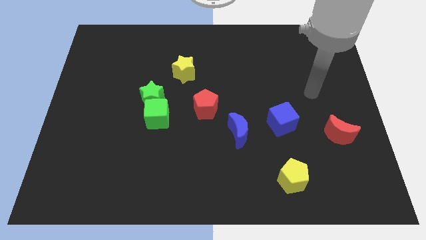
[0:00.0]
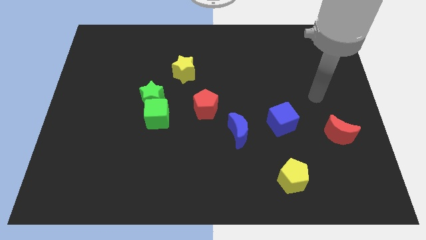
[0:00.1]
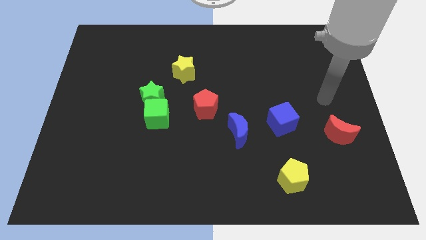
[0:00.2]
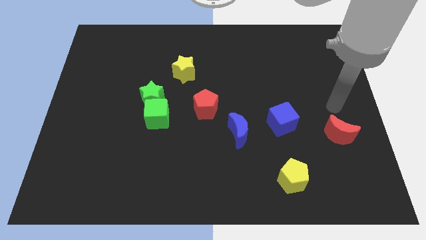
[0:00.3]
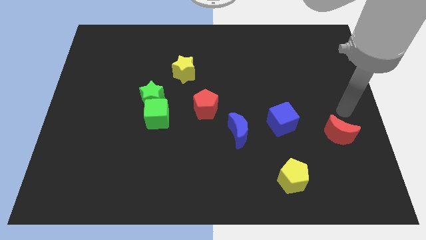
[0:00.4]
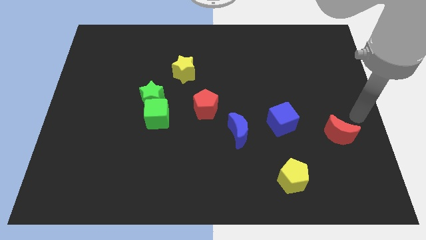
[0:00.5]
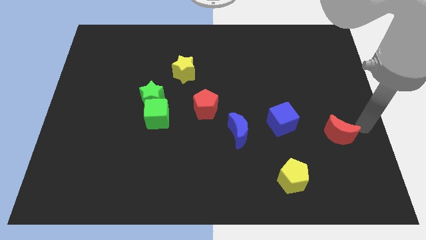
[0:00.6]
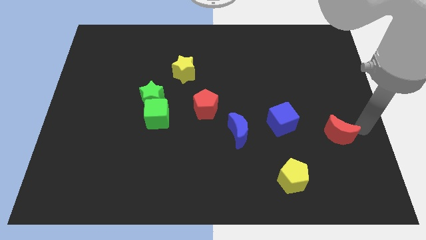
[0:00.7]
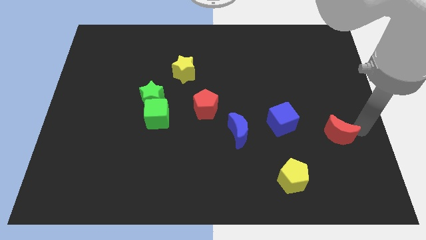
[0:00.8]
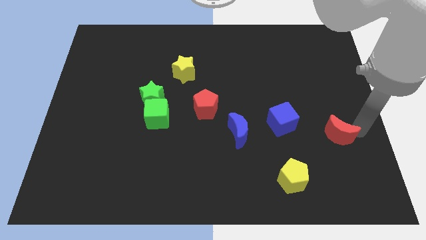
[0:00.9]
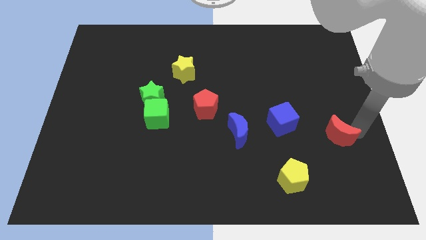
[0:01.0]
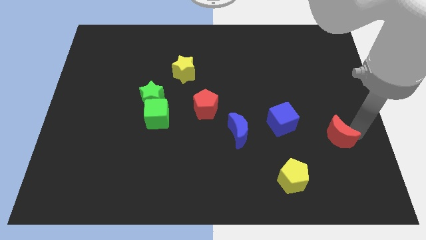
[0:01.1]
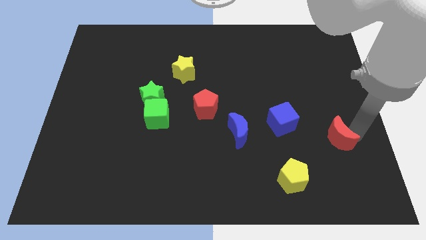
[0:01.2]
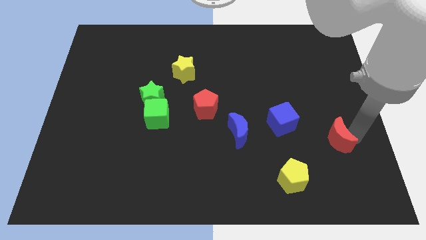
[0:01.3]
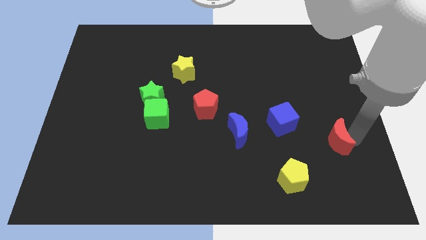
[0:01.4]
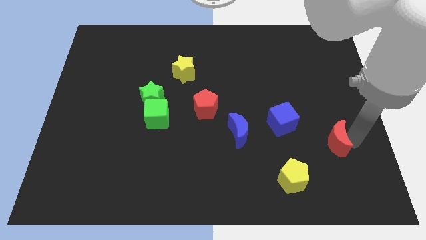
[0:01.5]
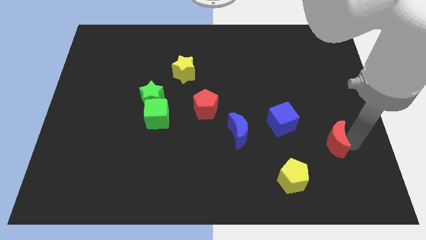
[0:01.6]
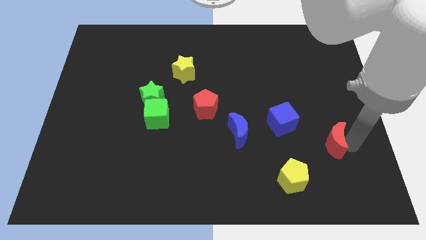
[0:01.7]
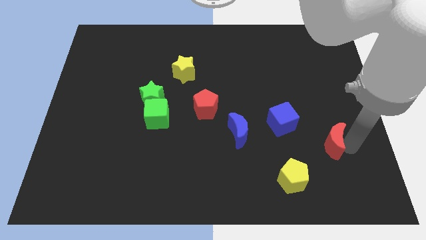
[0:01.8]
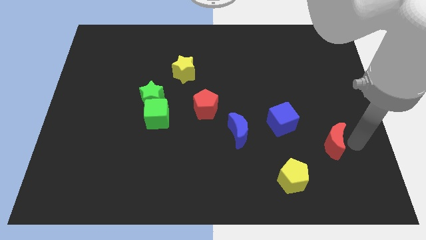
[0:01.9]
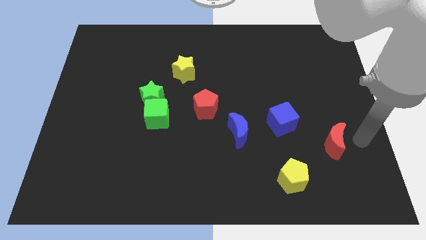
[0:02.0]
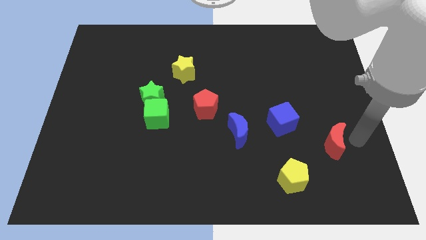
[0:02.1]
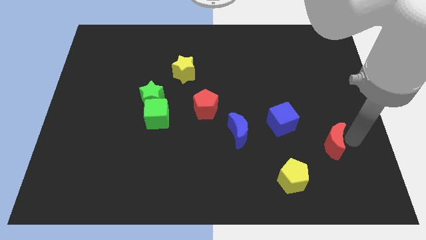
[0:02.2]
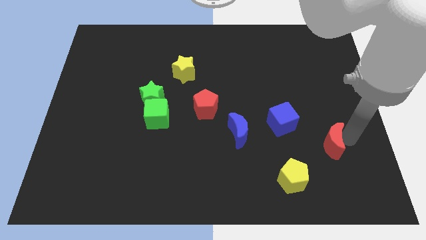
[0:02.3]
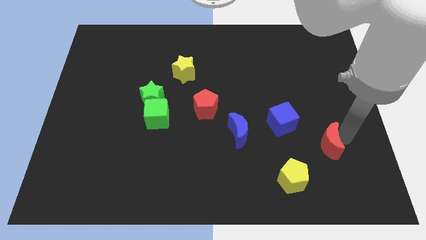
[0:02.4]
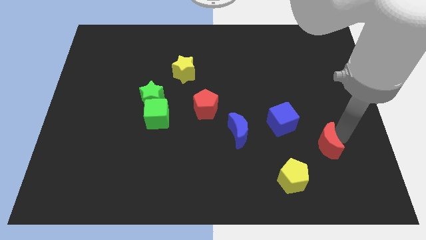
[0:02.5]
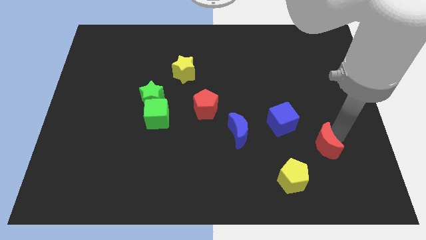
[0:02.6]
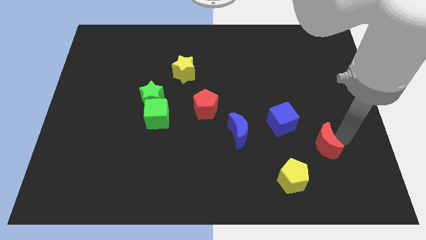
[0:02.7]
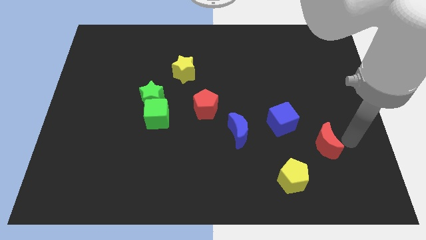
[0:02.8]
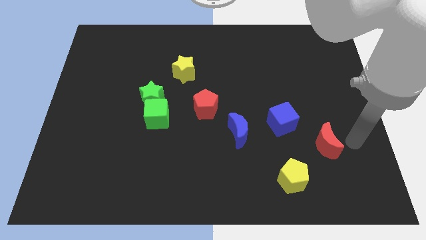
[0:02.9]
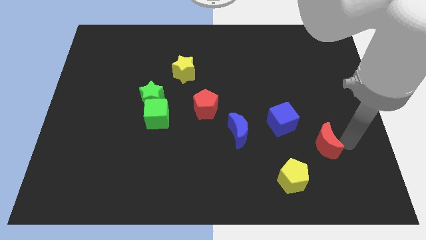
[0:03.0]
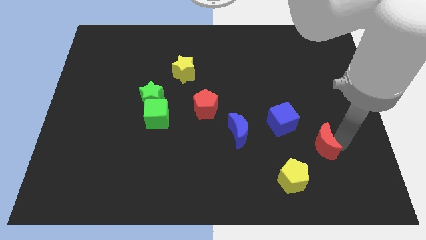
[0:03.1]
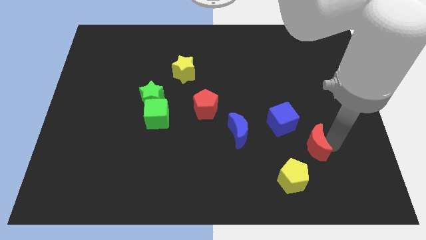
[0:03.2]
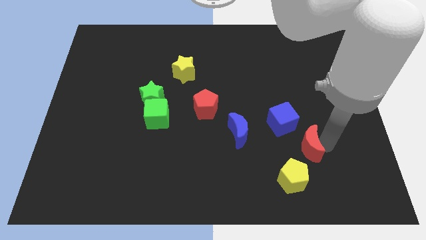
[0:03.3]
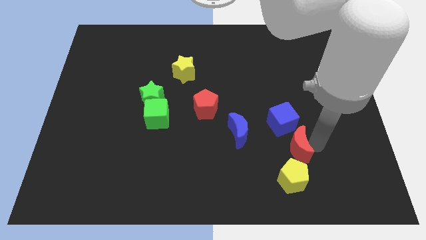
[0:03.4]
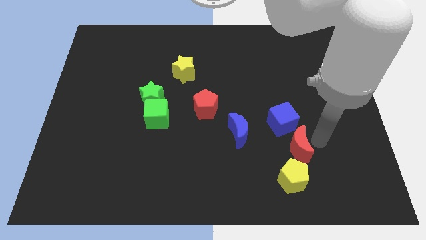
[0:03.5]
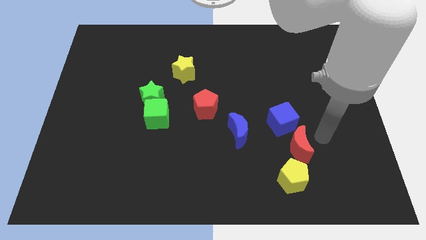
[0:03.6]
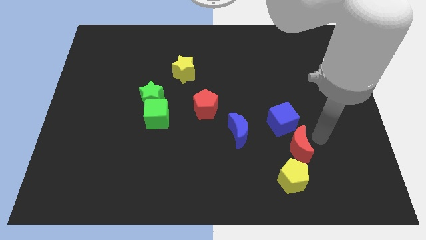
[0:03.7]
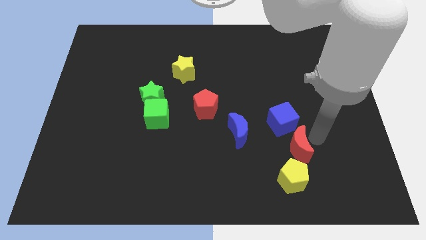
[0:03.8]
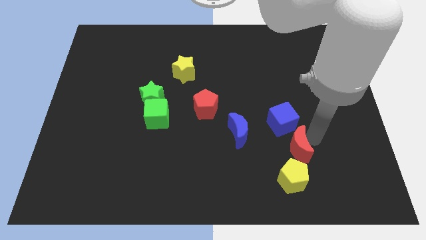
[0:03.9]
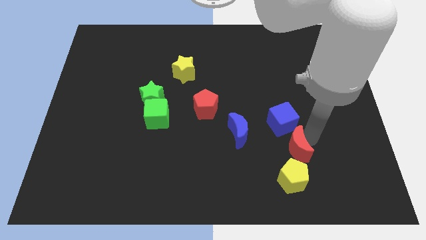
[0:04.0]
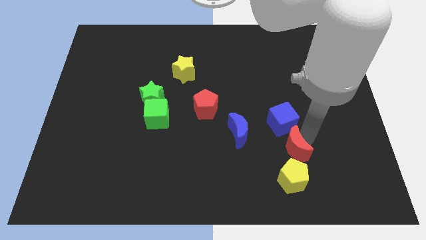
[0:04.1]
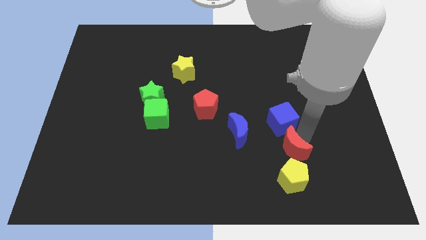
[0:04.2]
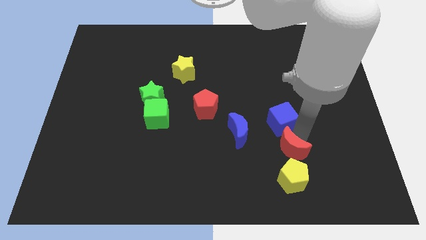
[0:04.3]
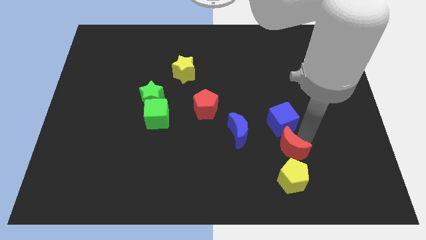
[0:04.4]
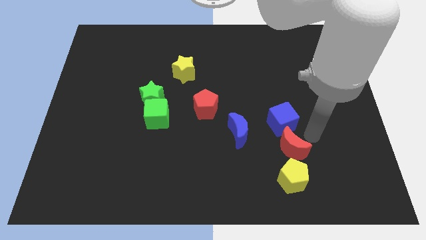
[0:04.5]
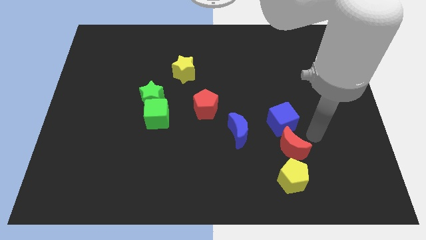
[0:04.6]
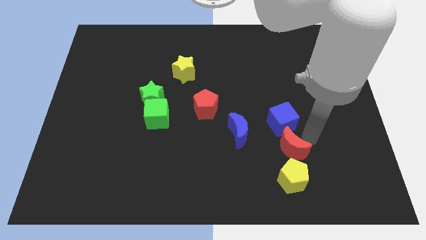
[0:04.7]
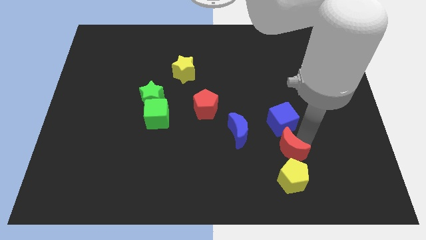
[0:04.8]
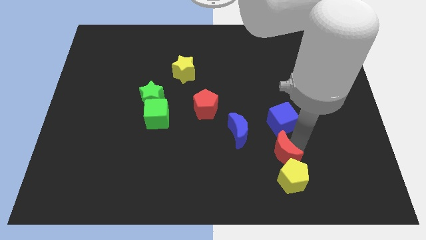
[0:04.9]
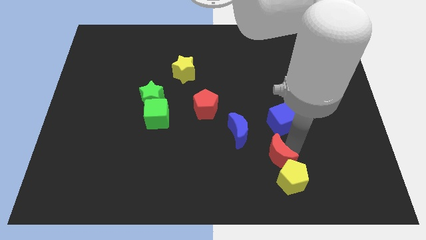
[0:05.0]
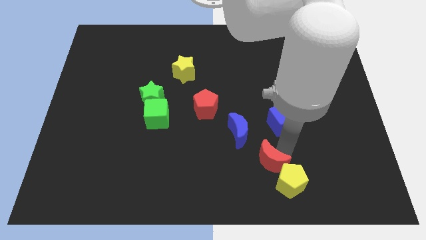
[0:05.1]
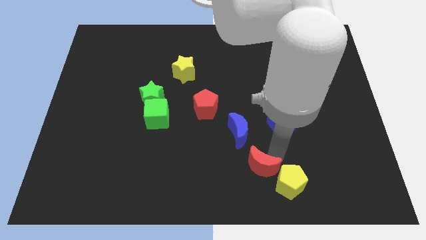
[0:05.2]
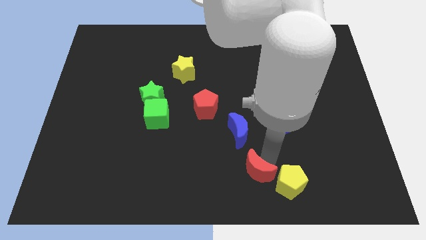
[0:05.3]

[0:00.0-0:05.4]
push the red moon to the bottom side

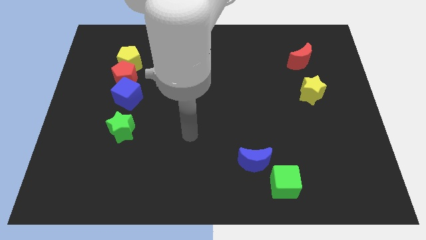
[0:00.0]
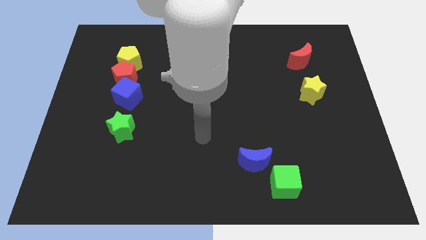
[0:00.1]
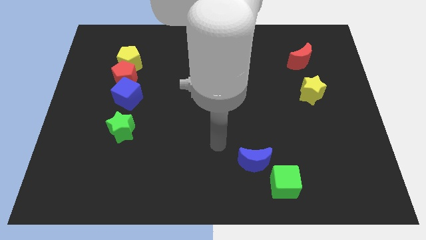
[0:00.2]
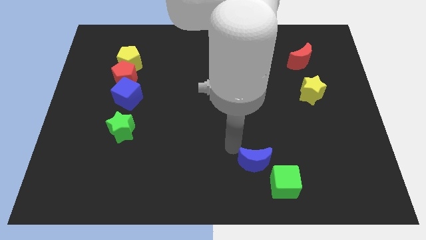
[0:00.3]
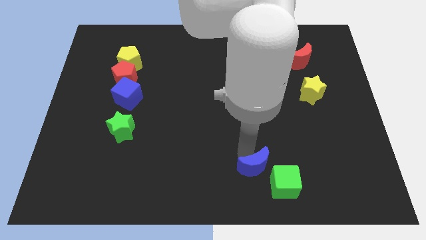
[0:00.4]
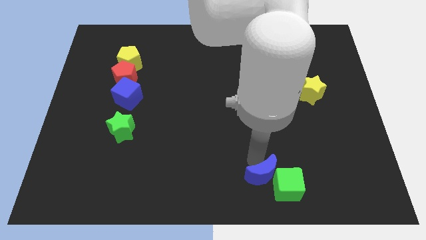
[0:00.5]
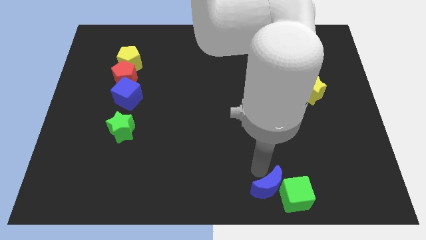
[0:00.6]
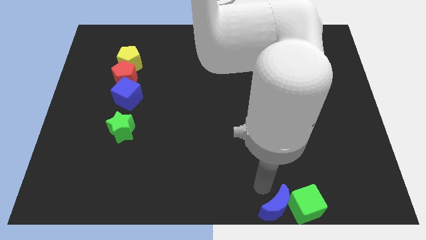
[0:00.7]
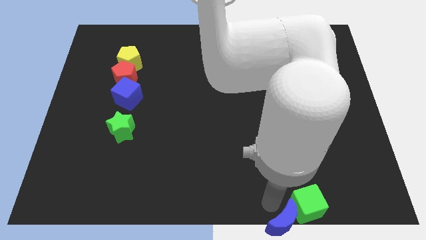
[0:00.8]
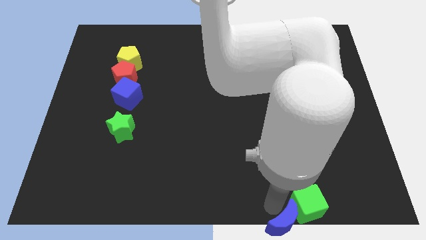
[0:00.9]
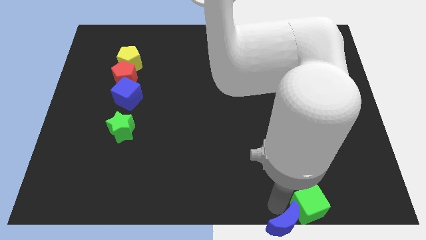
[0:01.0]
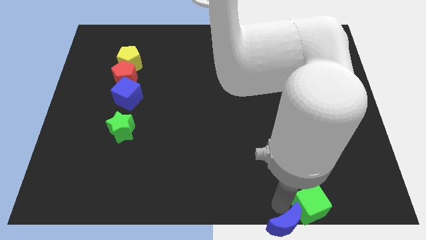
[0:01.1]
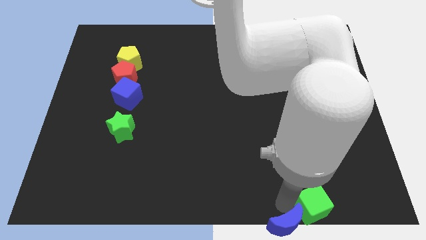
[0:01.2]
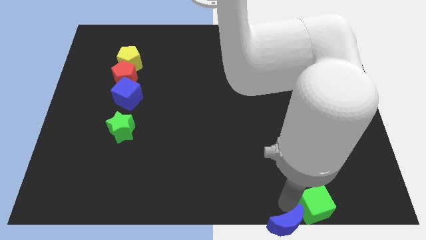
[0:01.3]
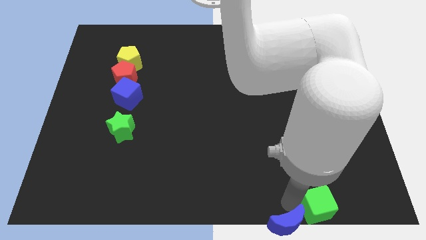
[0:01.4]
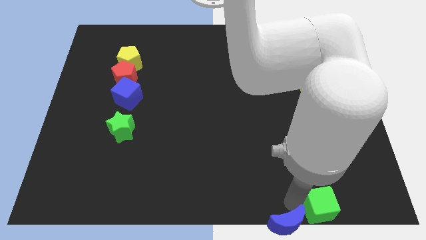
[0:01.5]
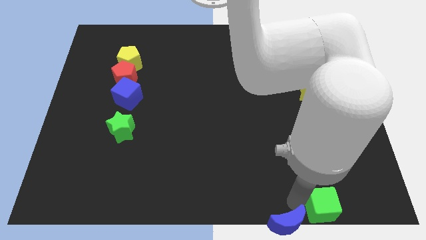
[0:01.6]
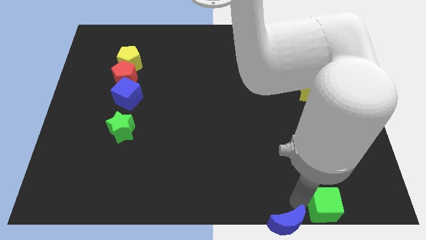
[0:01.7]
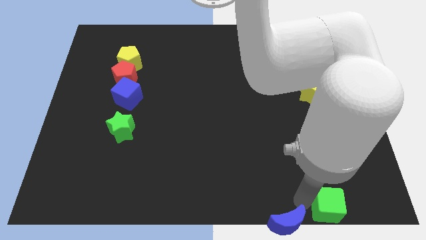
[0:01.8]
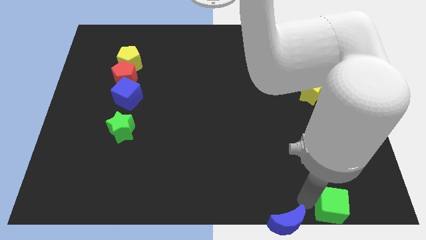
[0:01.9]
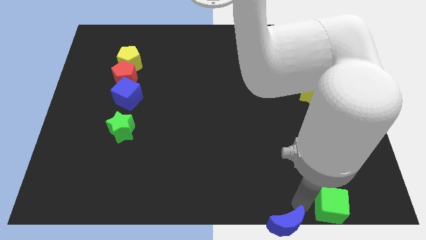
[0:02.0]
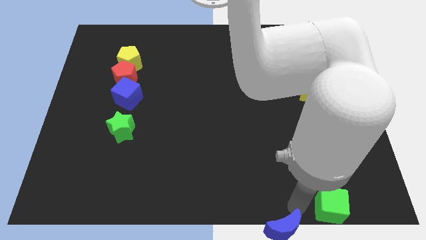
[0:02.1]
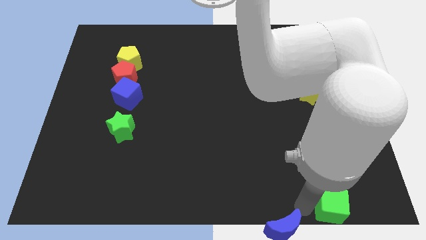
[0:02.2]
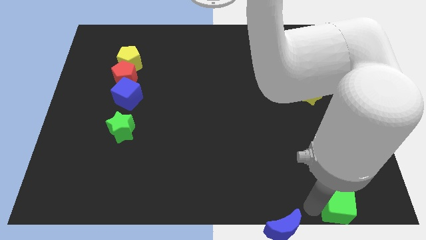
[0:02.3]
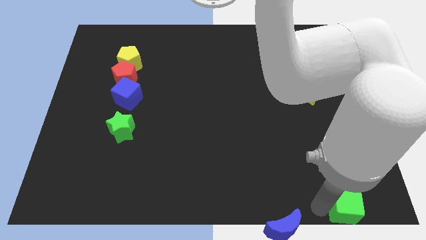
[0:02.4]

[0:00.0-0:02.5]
move the green cube to the bottom right of the board
